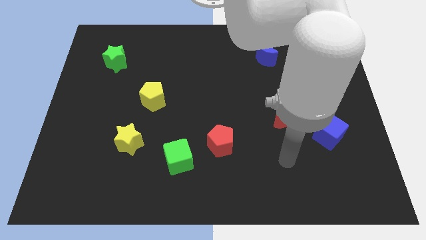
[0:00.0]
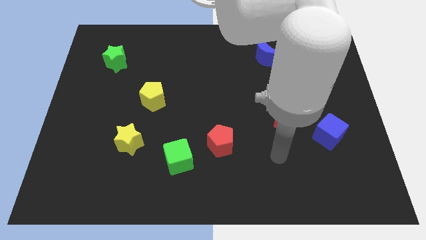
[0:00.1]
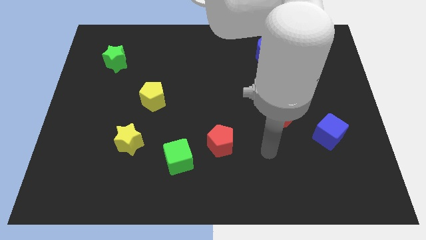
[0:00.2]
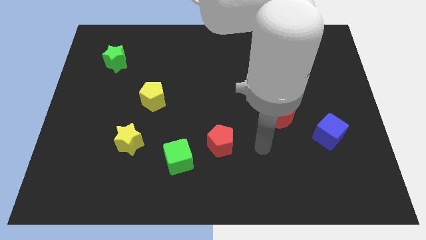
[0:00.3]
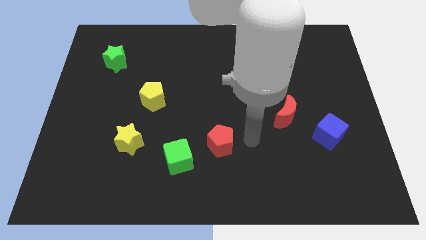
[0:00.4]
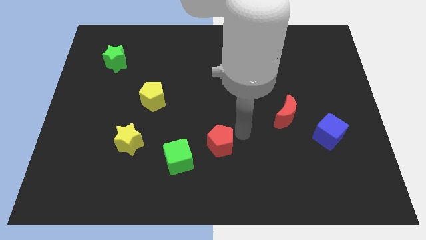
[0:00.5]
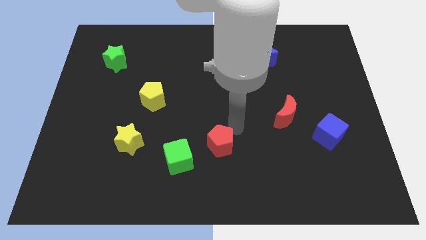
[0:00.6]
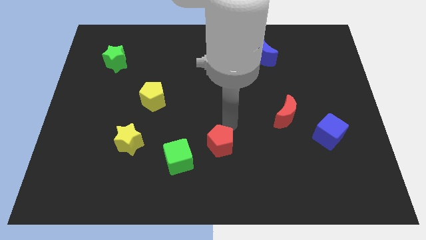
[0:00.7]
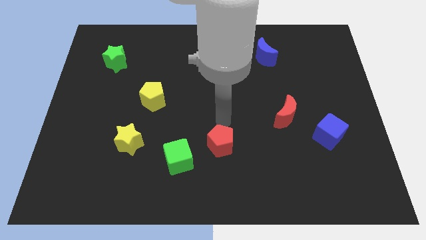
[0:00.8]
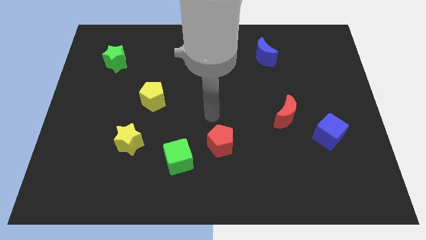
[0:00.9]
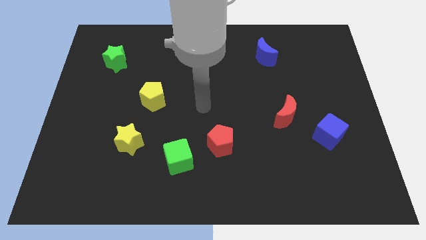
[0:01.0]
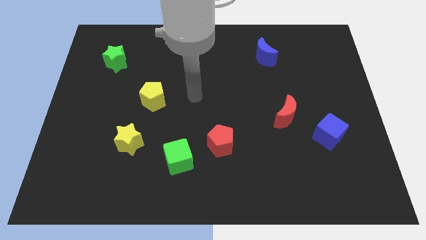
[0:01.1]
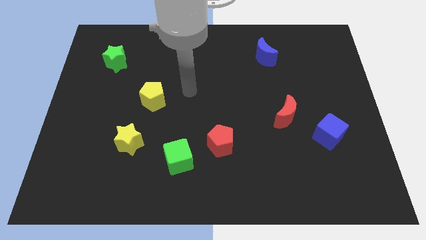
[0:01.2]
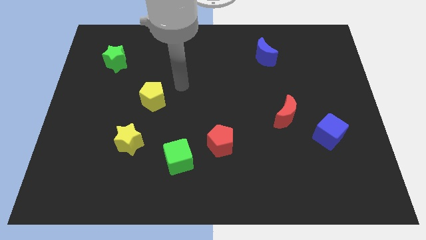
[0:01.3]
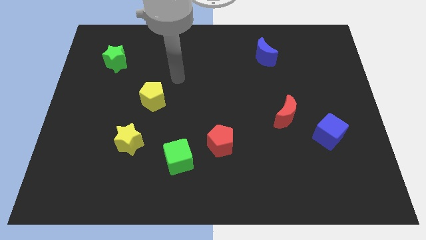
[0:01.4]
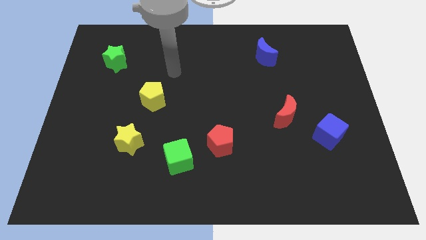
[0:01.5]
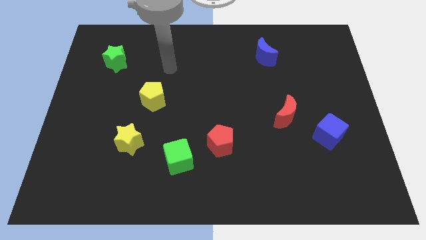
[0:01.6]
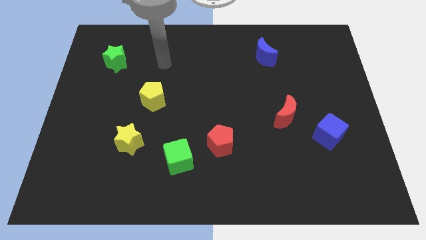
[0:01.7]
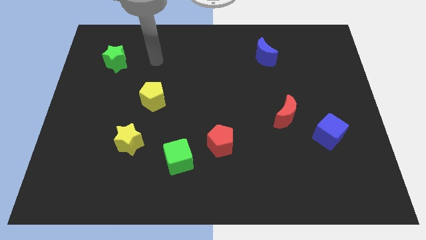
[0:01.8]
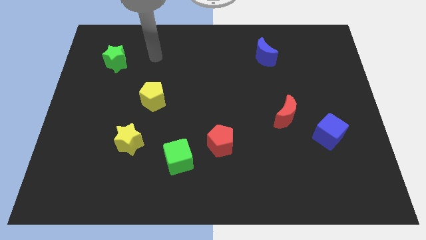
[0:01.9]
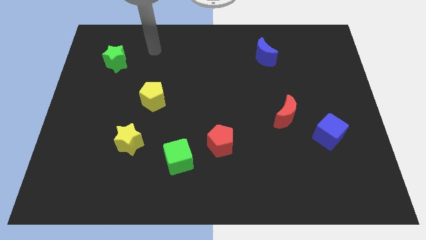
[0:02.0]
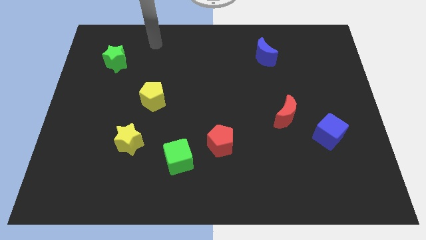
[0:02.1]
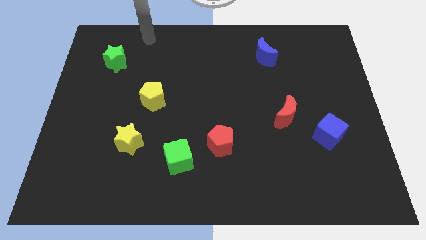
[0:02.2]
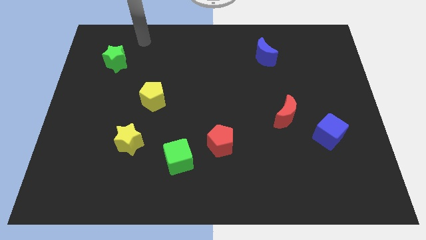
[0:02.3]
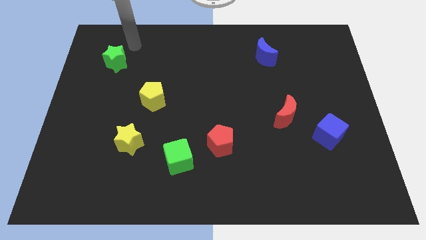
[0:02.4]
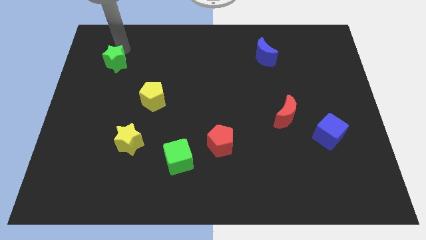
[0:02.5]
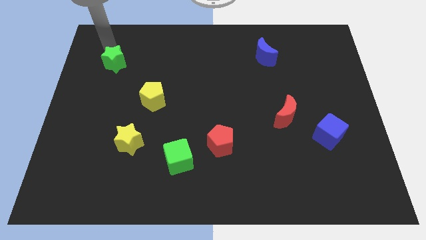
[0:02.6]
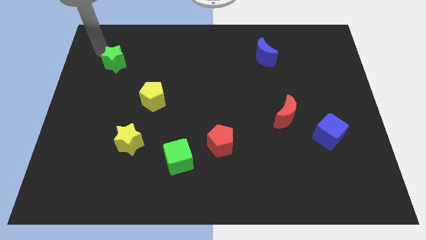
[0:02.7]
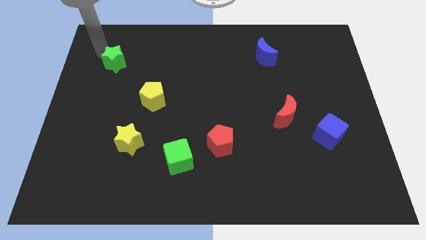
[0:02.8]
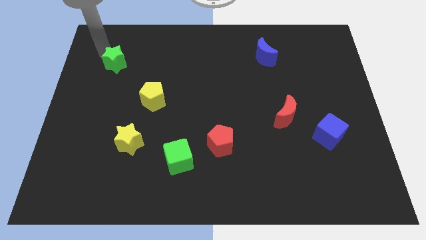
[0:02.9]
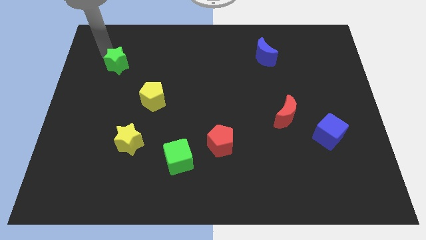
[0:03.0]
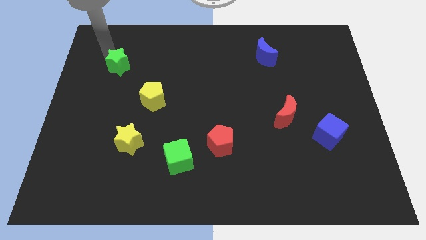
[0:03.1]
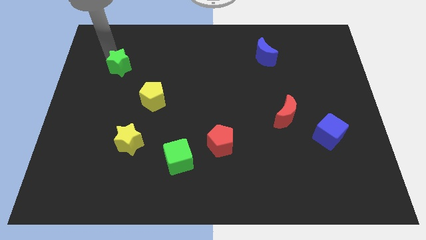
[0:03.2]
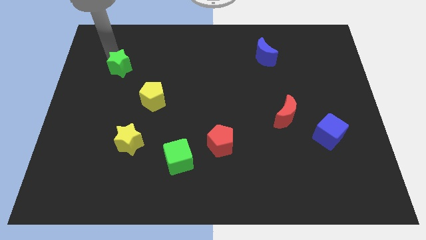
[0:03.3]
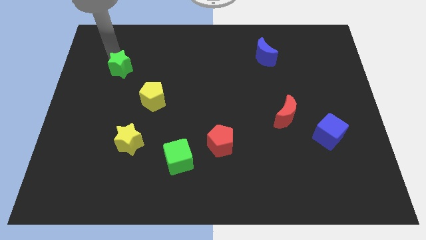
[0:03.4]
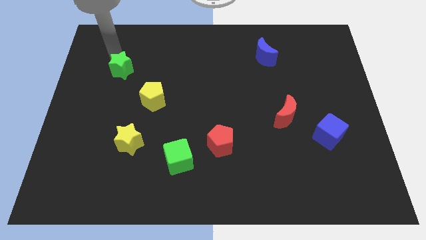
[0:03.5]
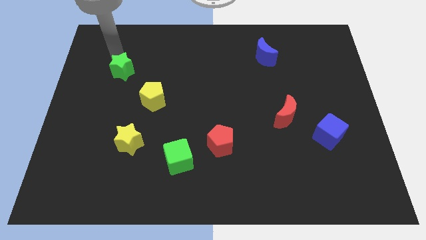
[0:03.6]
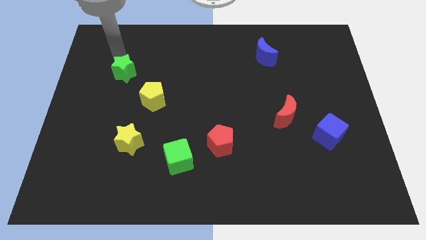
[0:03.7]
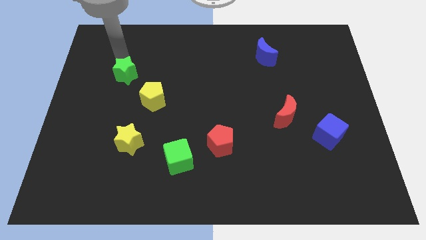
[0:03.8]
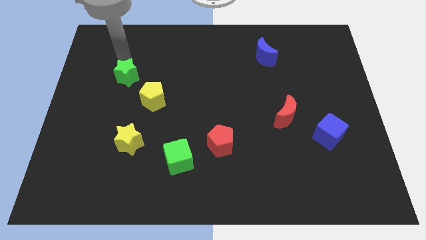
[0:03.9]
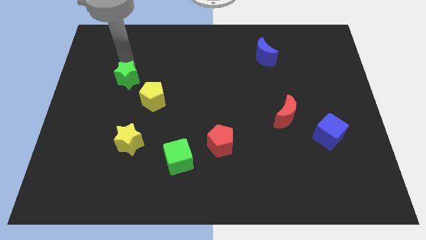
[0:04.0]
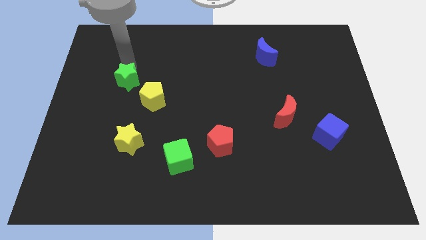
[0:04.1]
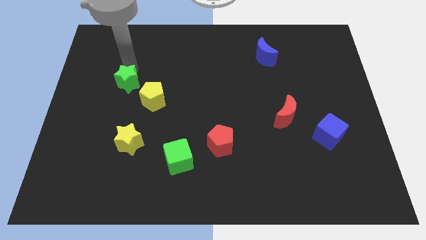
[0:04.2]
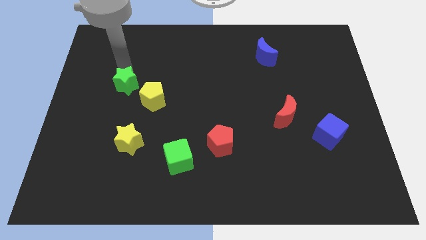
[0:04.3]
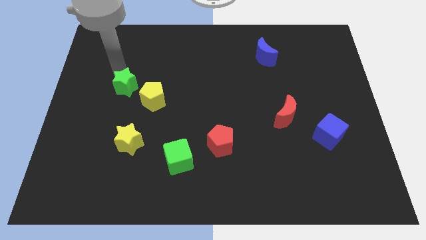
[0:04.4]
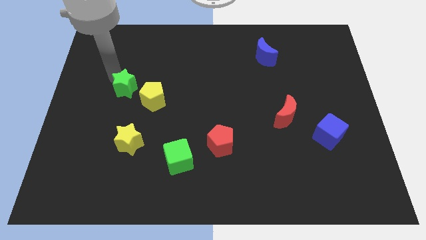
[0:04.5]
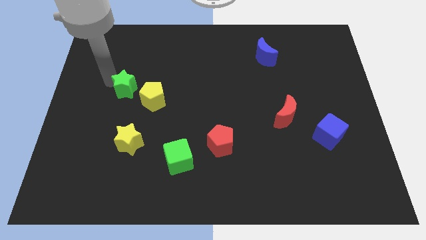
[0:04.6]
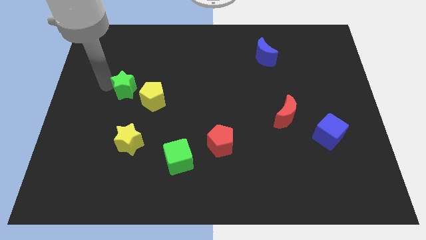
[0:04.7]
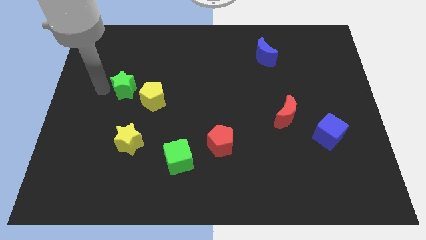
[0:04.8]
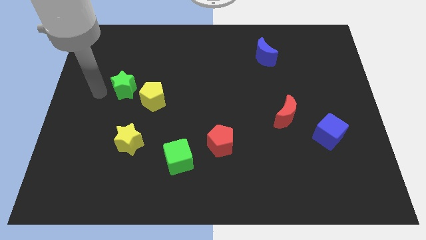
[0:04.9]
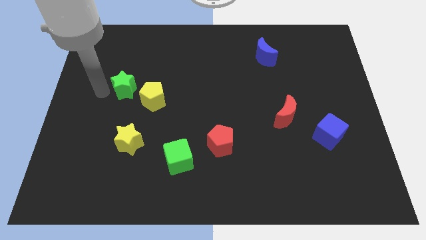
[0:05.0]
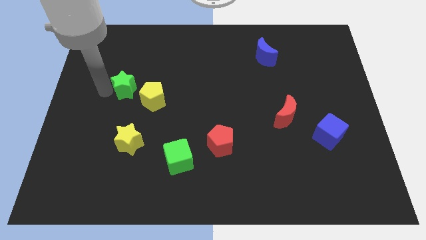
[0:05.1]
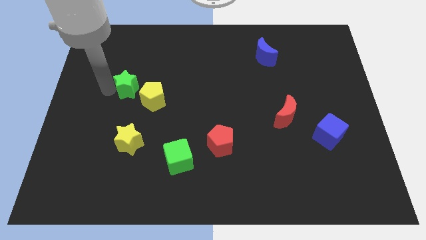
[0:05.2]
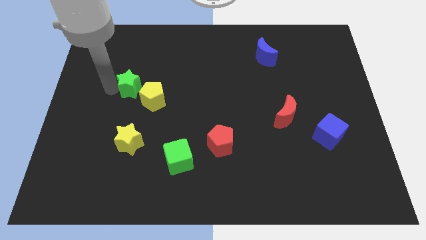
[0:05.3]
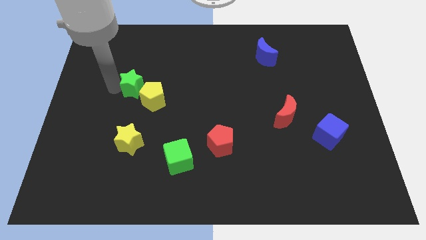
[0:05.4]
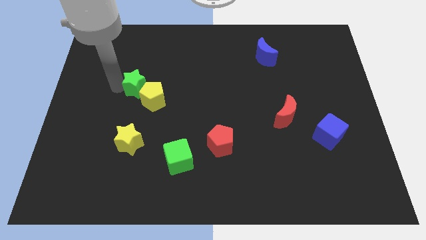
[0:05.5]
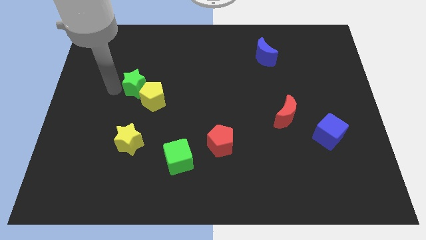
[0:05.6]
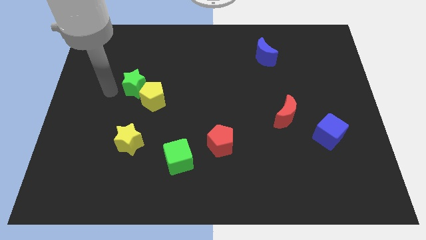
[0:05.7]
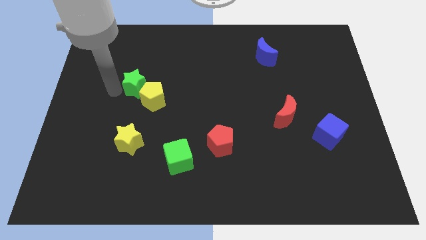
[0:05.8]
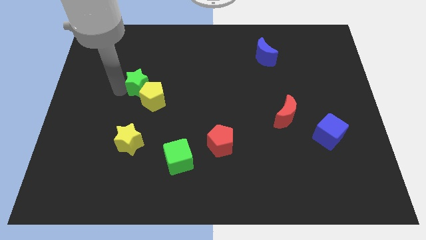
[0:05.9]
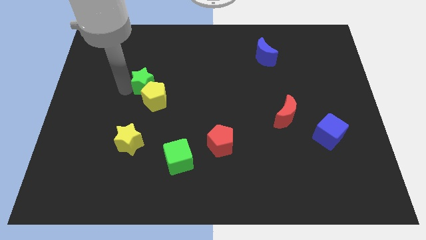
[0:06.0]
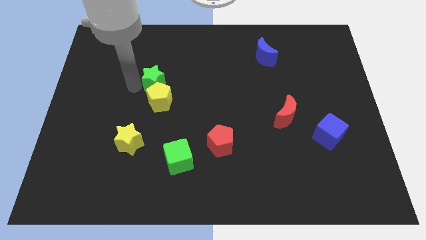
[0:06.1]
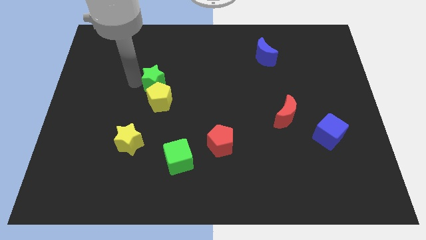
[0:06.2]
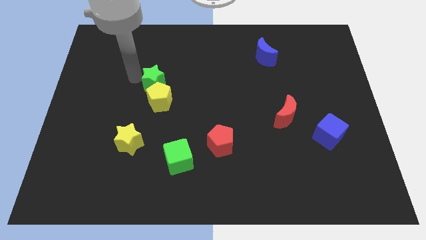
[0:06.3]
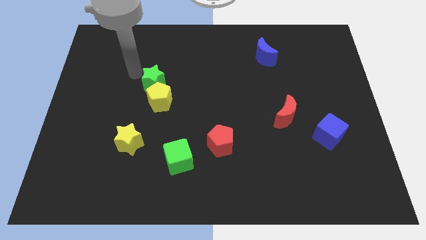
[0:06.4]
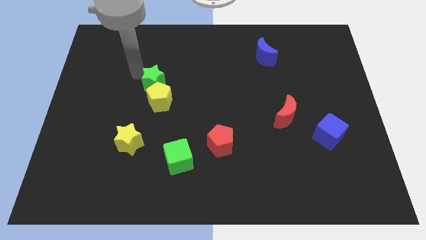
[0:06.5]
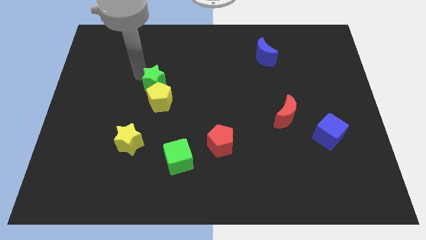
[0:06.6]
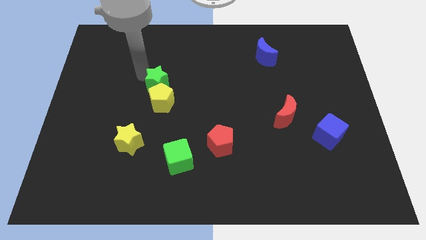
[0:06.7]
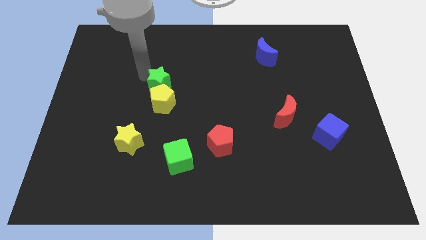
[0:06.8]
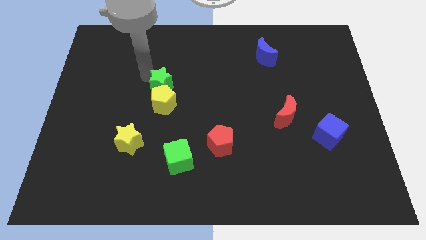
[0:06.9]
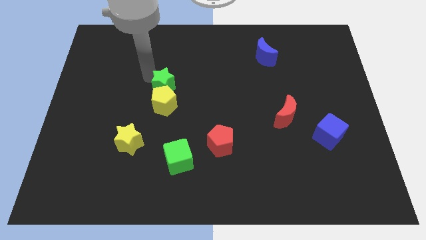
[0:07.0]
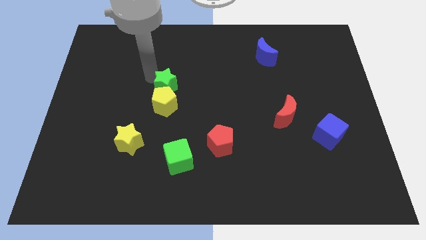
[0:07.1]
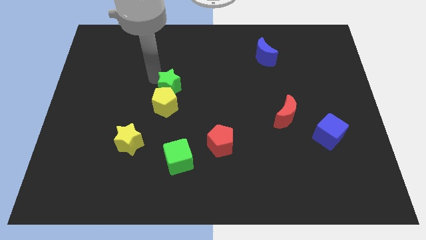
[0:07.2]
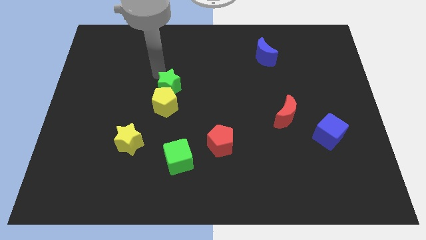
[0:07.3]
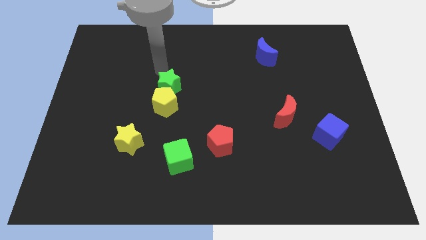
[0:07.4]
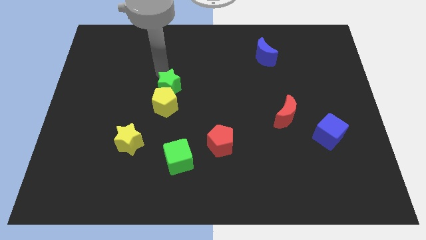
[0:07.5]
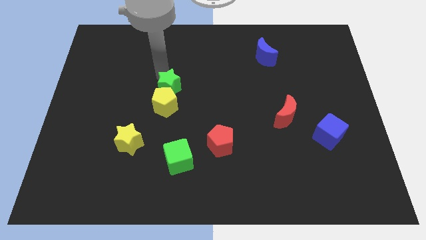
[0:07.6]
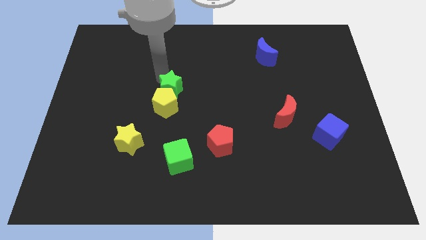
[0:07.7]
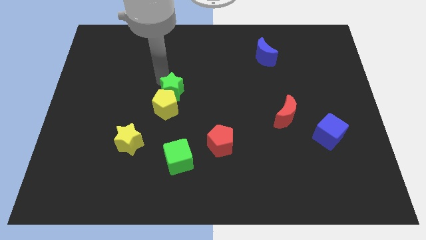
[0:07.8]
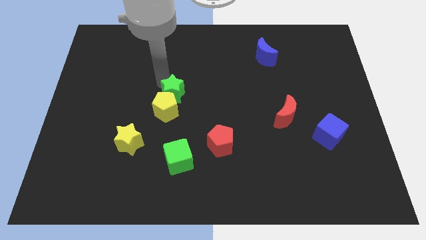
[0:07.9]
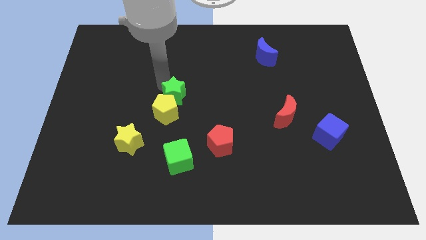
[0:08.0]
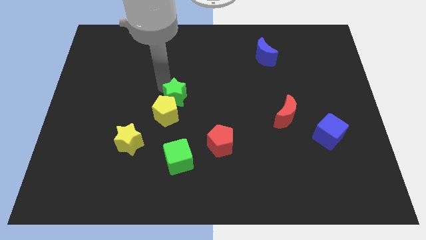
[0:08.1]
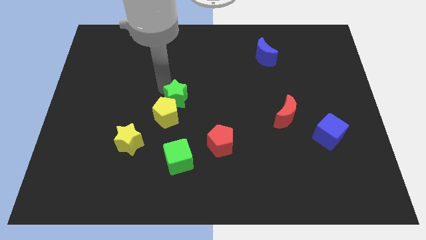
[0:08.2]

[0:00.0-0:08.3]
slide the green star down and to the right diagonally
